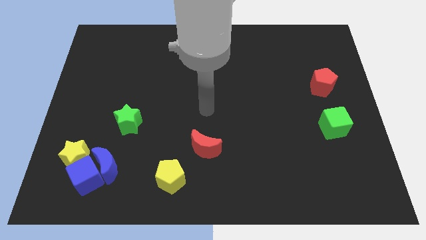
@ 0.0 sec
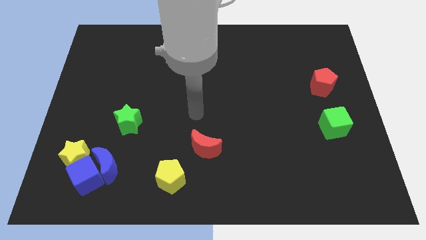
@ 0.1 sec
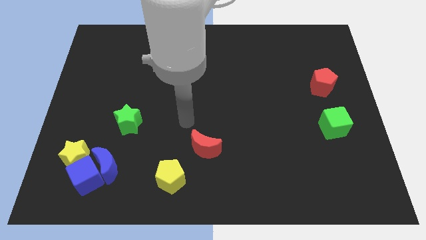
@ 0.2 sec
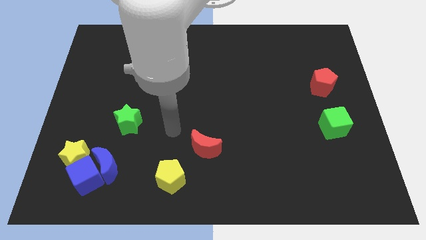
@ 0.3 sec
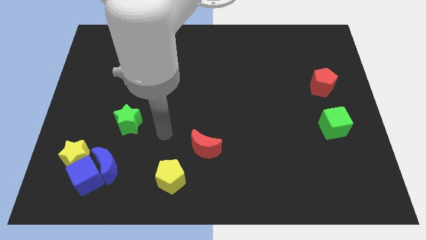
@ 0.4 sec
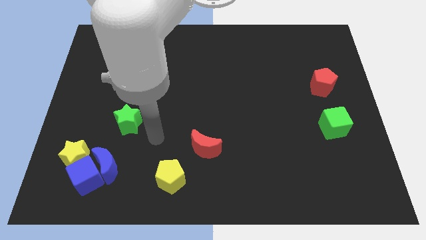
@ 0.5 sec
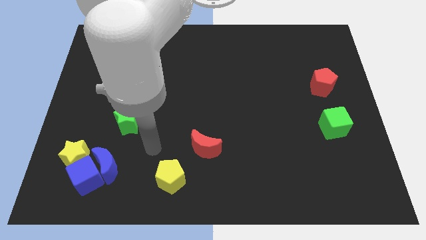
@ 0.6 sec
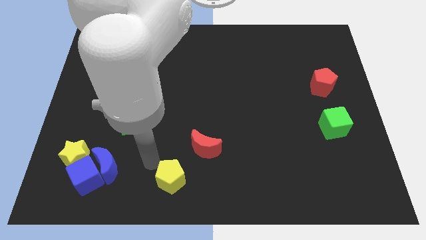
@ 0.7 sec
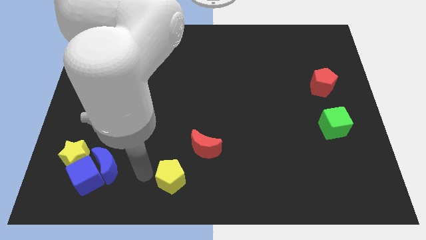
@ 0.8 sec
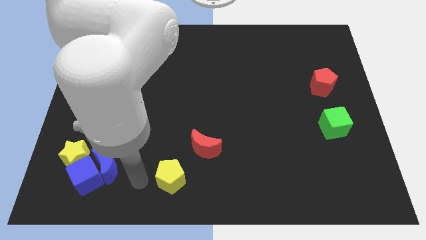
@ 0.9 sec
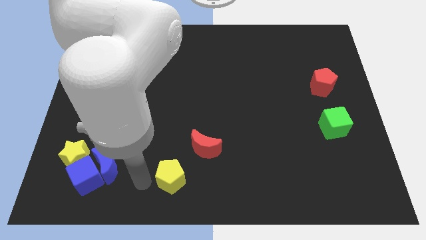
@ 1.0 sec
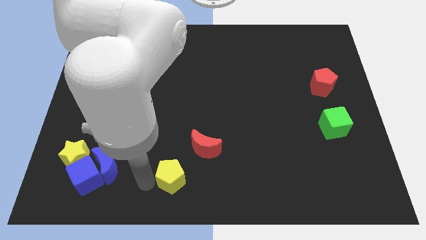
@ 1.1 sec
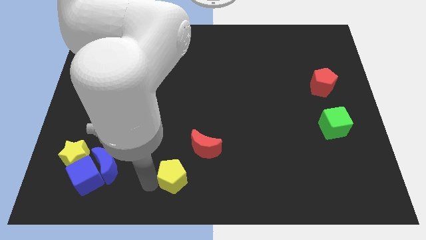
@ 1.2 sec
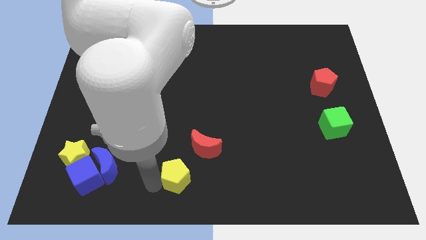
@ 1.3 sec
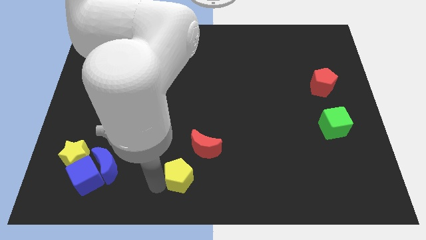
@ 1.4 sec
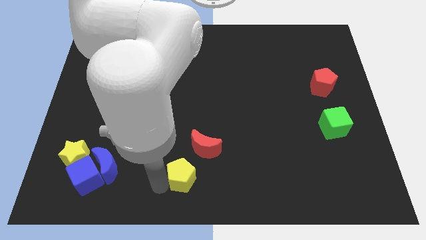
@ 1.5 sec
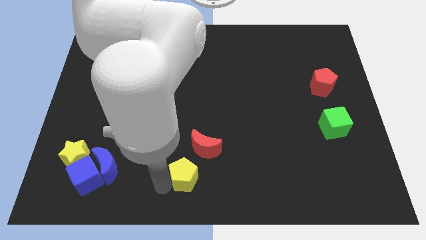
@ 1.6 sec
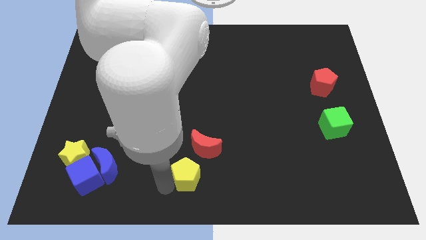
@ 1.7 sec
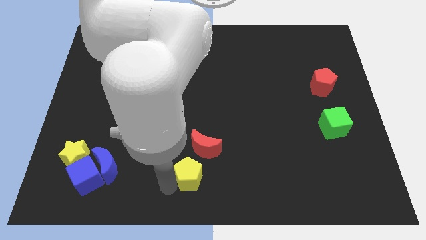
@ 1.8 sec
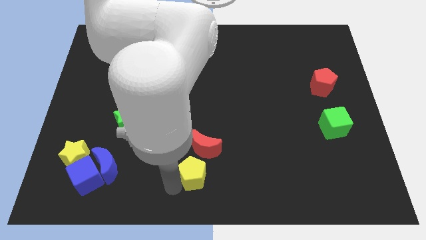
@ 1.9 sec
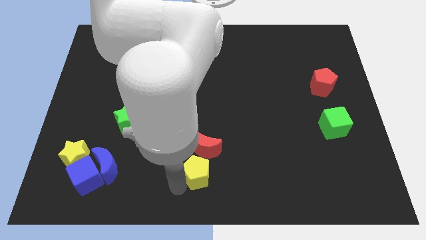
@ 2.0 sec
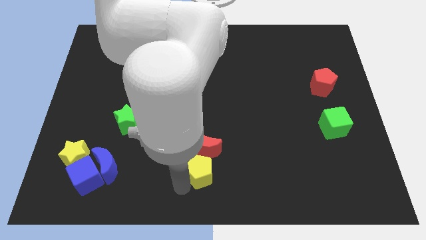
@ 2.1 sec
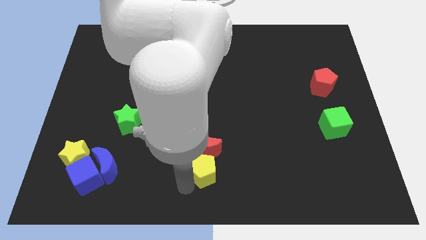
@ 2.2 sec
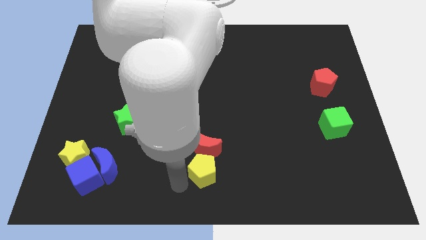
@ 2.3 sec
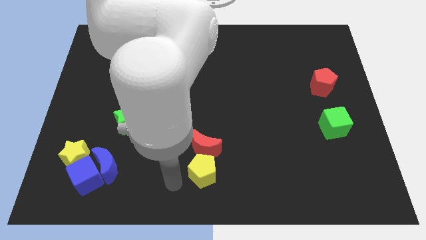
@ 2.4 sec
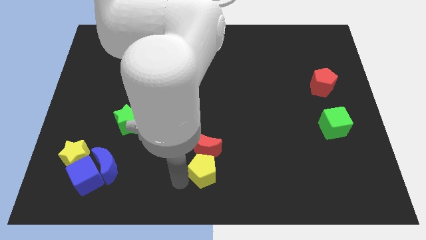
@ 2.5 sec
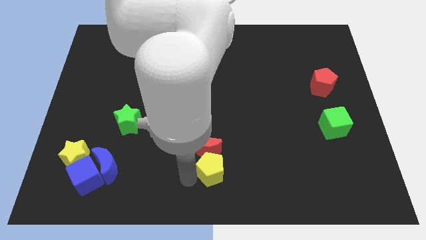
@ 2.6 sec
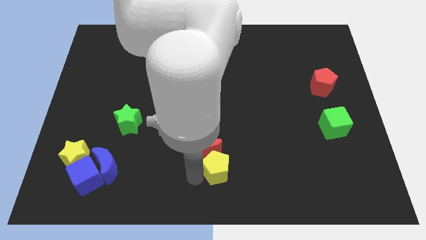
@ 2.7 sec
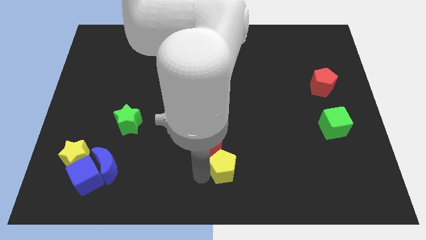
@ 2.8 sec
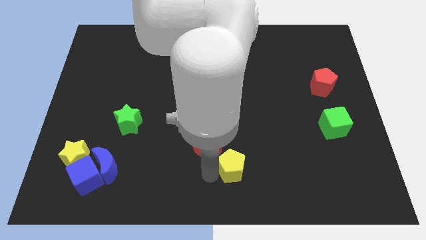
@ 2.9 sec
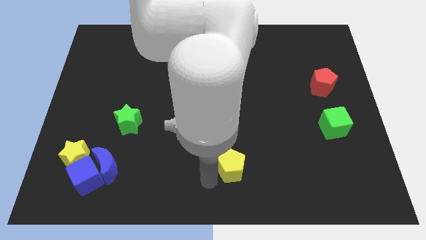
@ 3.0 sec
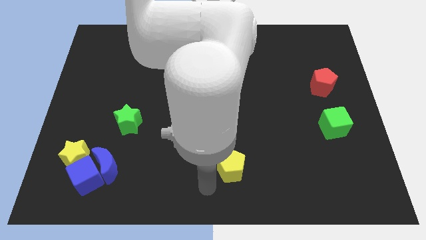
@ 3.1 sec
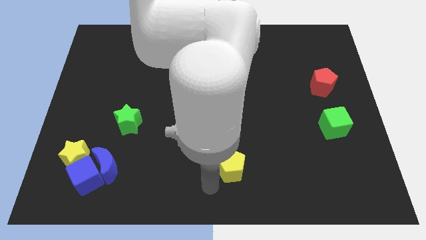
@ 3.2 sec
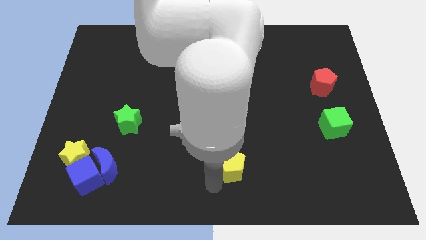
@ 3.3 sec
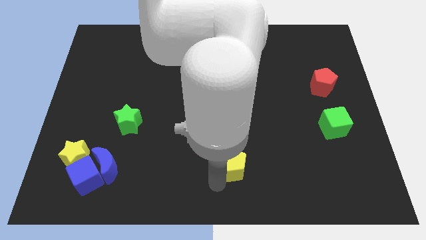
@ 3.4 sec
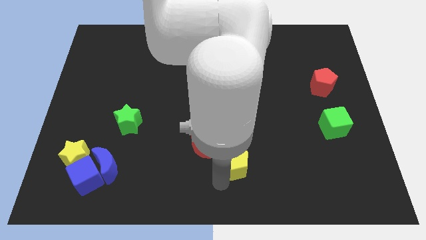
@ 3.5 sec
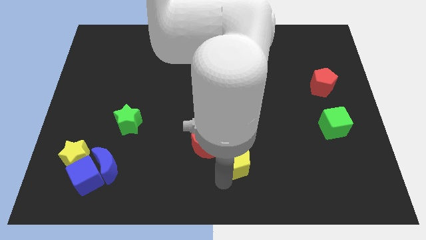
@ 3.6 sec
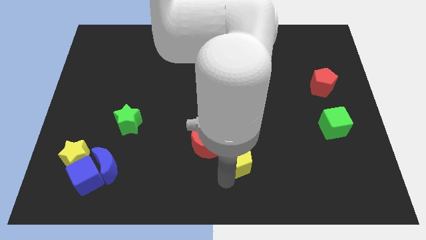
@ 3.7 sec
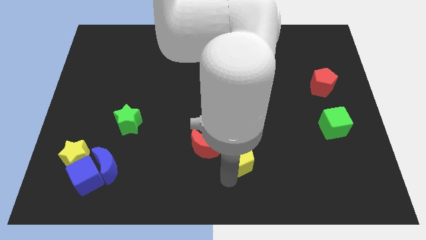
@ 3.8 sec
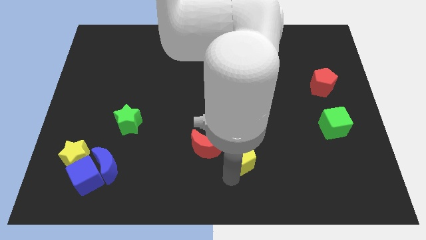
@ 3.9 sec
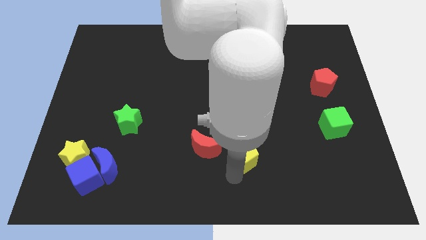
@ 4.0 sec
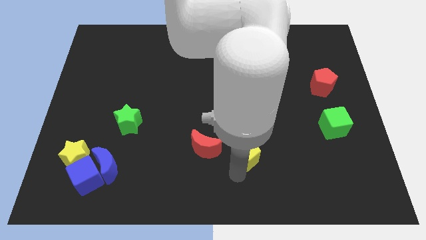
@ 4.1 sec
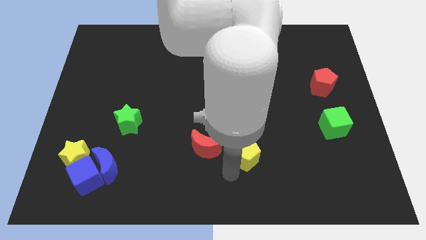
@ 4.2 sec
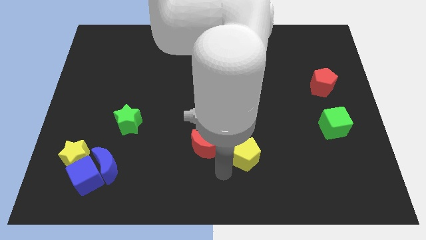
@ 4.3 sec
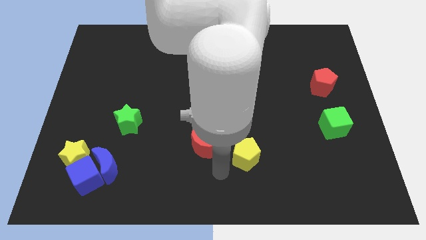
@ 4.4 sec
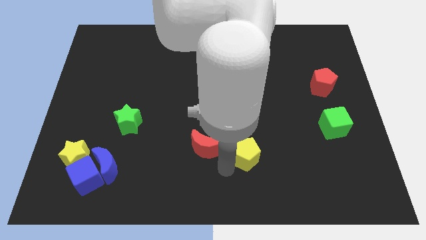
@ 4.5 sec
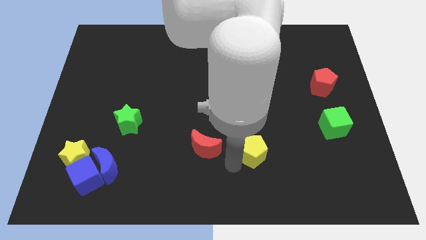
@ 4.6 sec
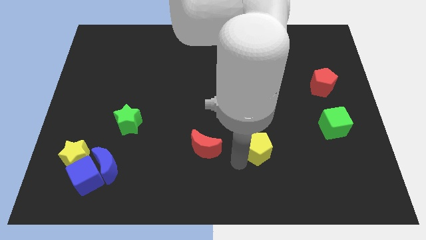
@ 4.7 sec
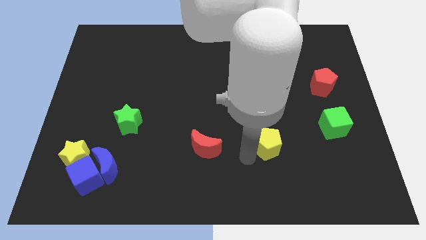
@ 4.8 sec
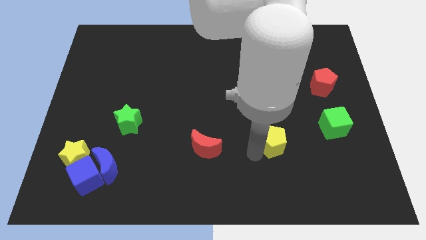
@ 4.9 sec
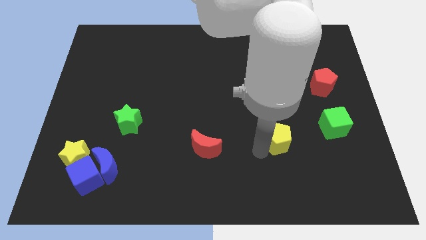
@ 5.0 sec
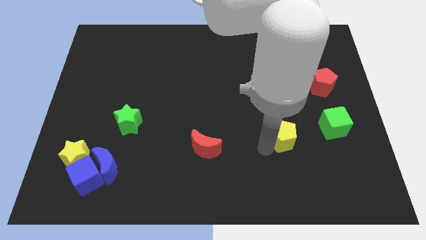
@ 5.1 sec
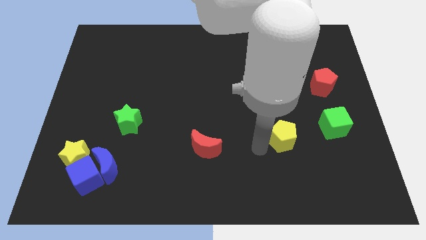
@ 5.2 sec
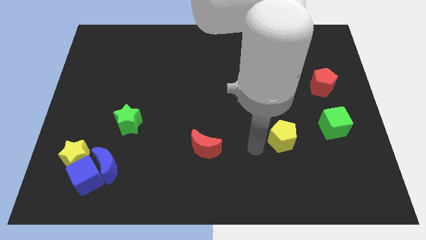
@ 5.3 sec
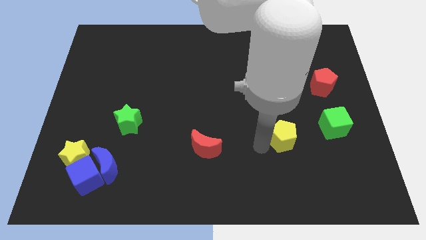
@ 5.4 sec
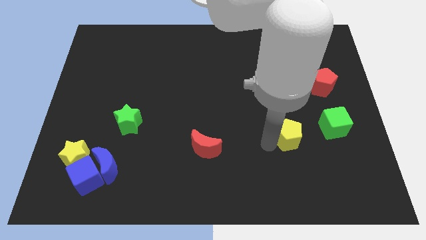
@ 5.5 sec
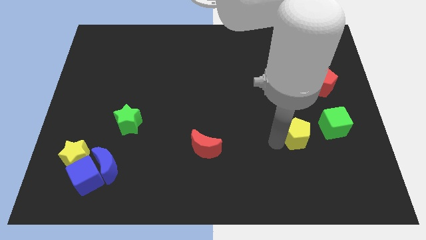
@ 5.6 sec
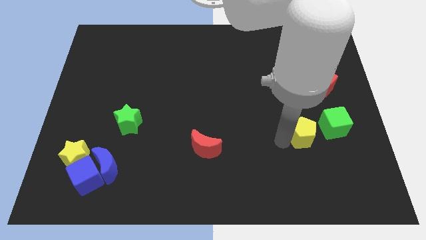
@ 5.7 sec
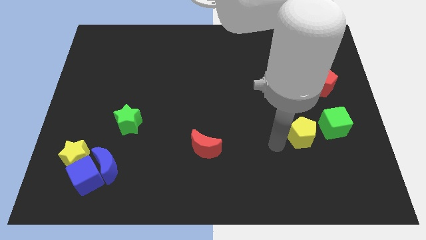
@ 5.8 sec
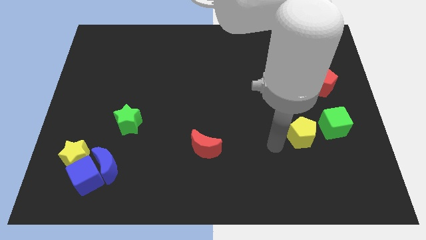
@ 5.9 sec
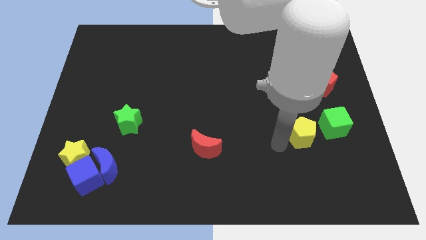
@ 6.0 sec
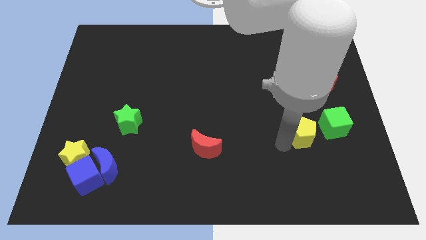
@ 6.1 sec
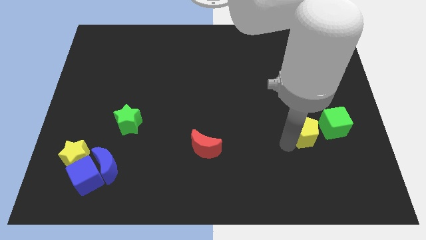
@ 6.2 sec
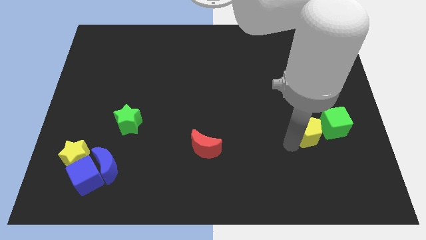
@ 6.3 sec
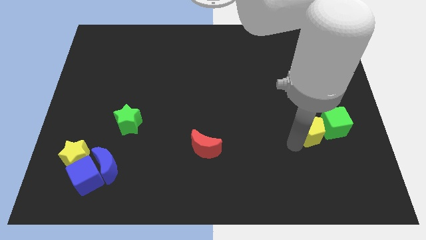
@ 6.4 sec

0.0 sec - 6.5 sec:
slide the yellow pentagon to the green cube

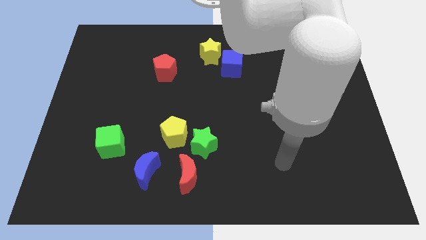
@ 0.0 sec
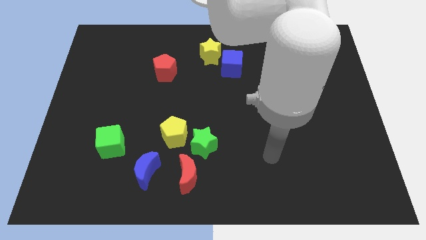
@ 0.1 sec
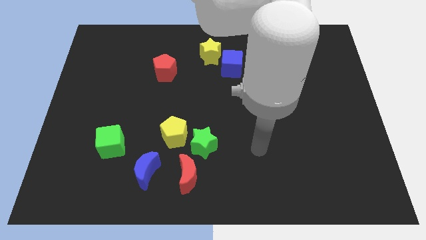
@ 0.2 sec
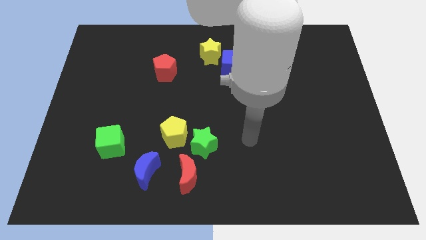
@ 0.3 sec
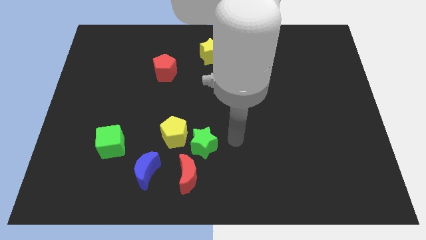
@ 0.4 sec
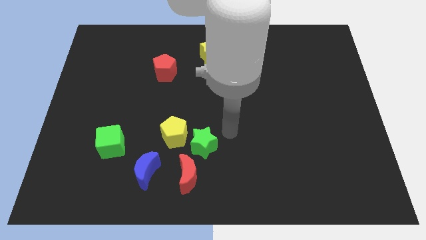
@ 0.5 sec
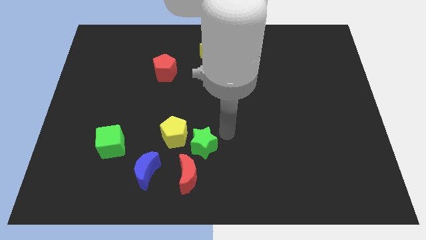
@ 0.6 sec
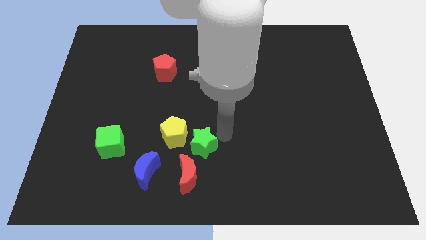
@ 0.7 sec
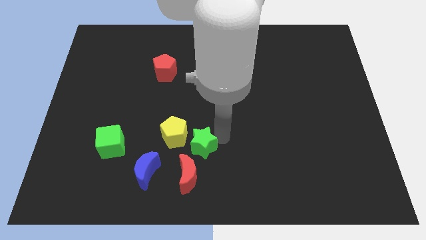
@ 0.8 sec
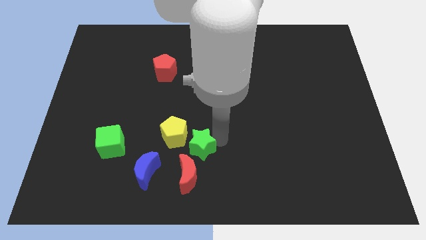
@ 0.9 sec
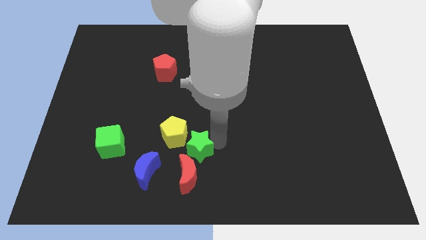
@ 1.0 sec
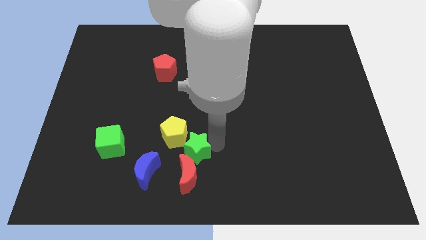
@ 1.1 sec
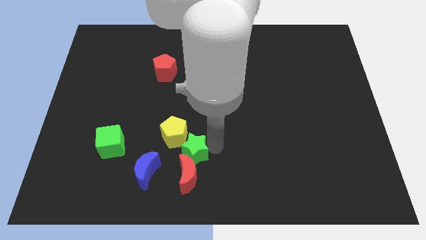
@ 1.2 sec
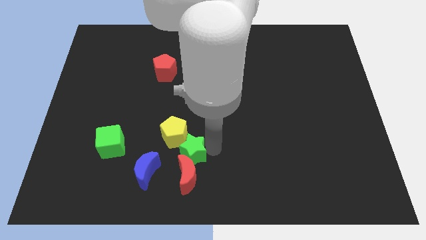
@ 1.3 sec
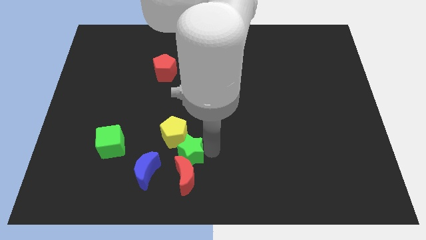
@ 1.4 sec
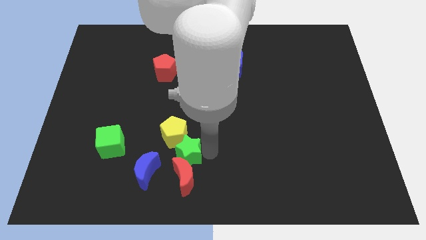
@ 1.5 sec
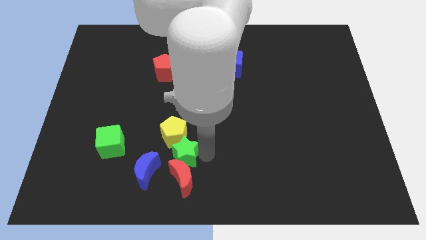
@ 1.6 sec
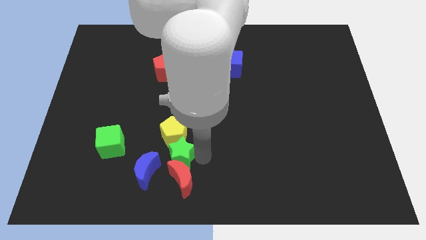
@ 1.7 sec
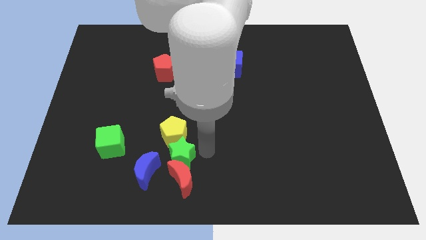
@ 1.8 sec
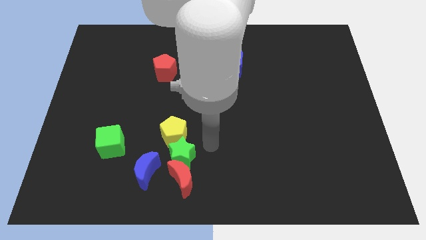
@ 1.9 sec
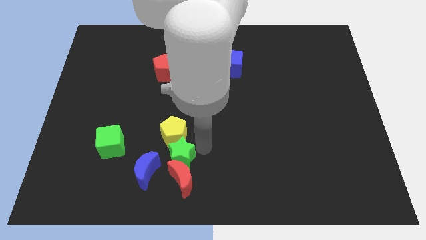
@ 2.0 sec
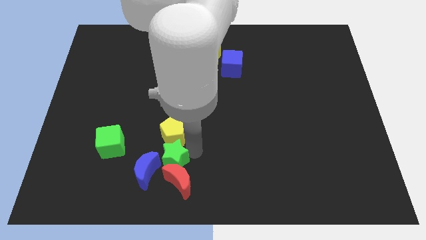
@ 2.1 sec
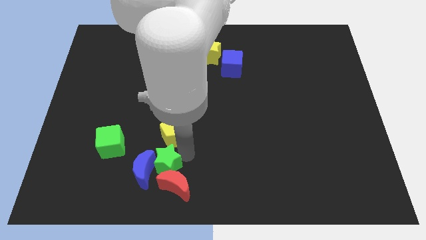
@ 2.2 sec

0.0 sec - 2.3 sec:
move the green star next to the blue moon
